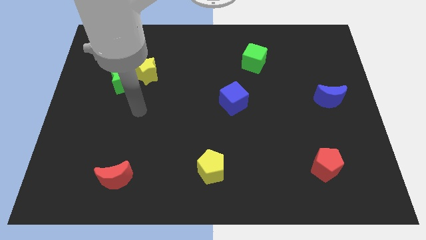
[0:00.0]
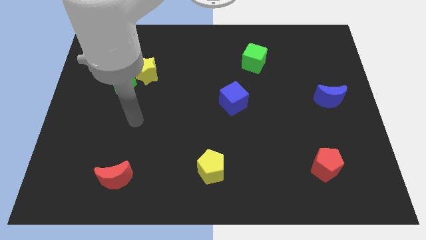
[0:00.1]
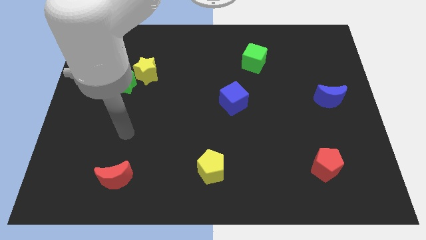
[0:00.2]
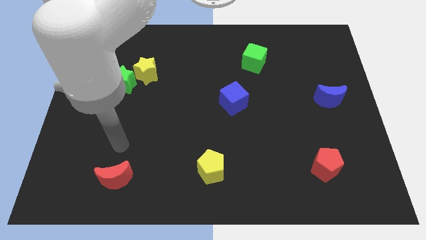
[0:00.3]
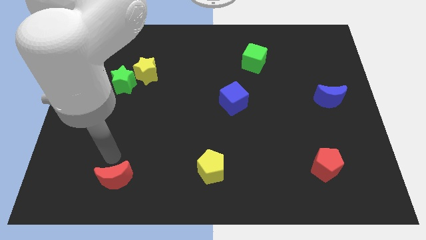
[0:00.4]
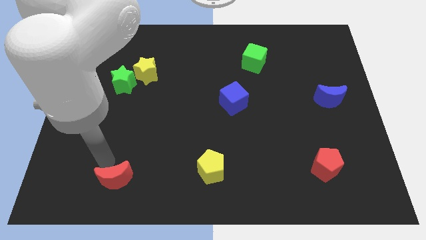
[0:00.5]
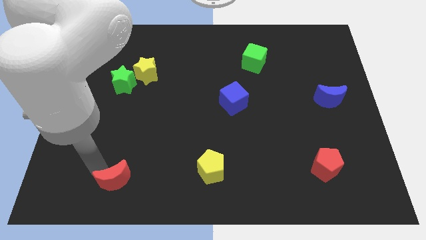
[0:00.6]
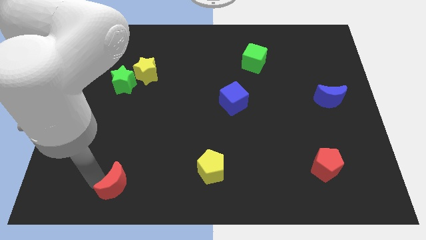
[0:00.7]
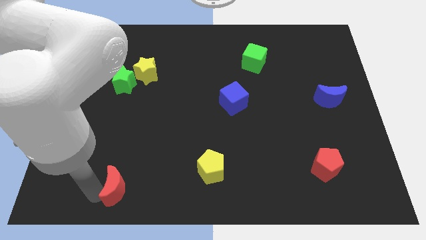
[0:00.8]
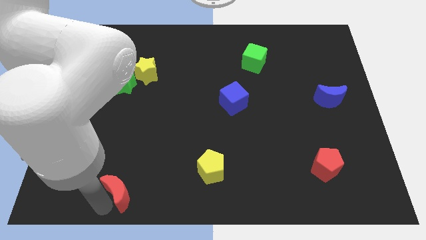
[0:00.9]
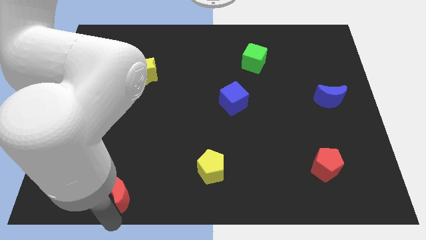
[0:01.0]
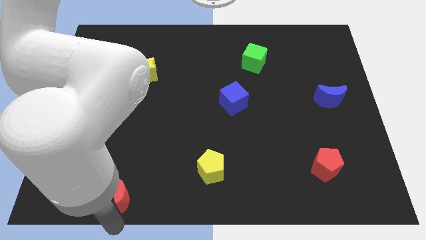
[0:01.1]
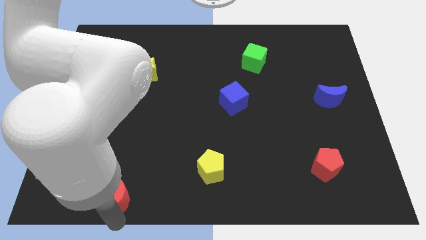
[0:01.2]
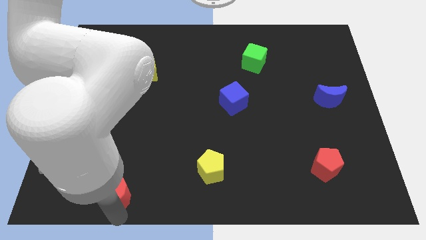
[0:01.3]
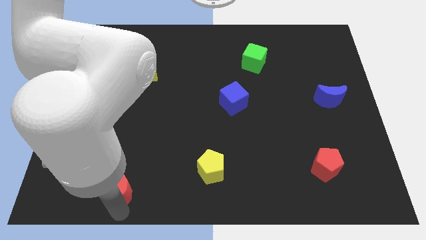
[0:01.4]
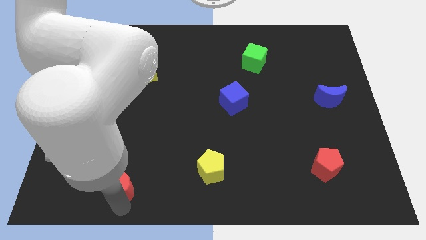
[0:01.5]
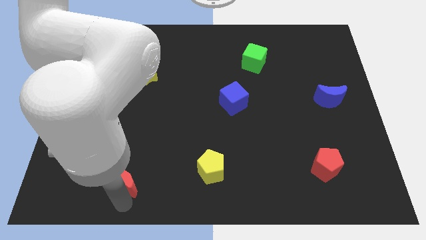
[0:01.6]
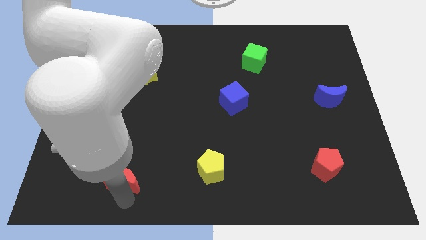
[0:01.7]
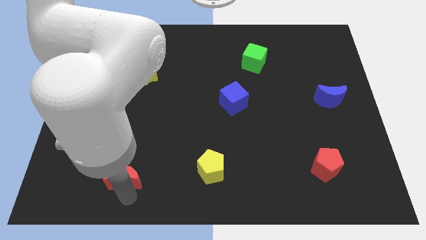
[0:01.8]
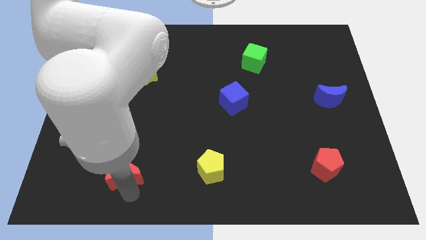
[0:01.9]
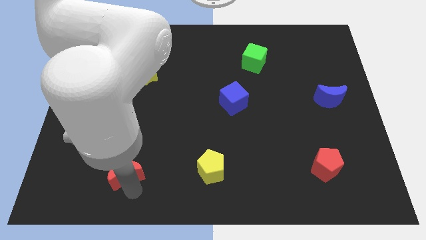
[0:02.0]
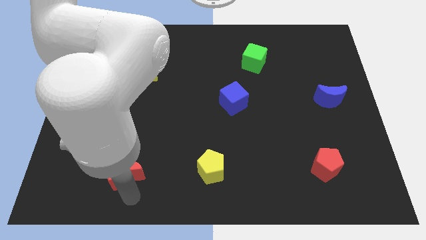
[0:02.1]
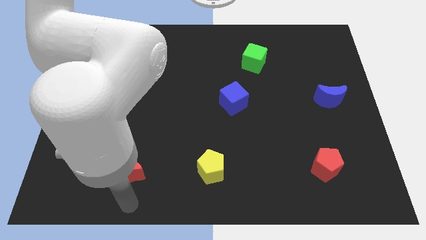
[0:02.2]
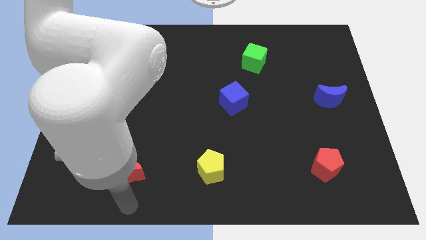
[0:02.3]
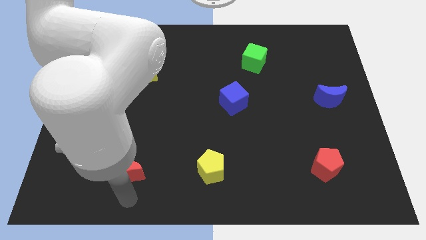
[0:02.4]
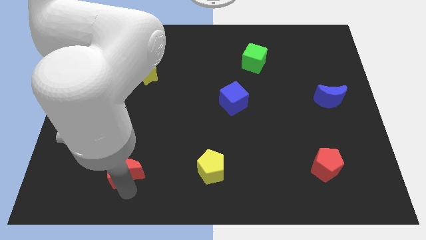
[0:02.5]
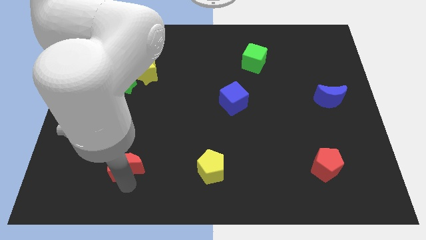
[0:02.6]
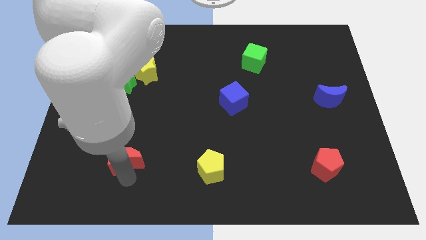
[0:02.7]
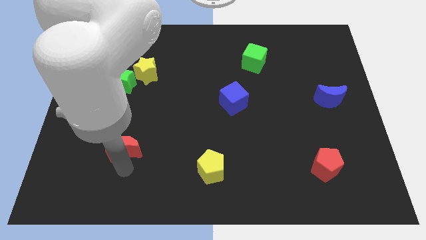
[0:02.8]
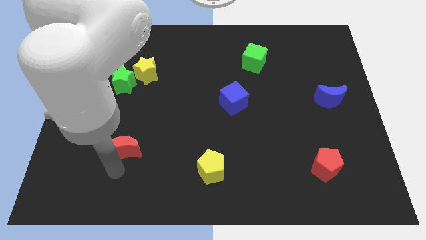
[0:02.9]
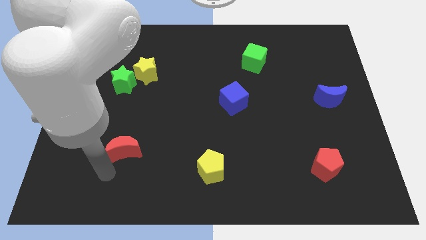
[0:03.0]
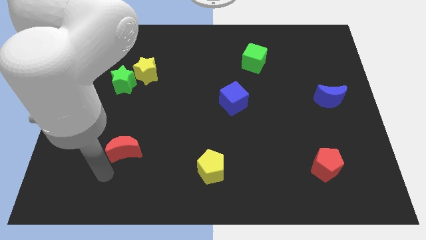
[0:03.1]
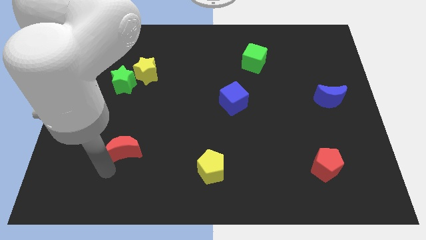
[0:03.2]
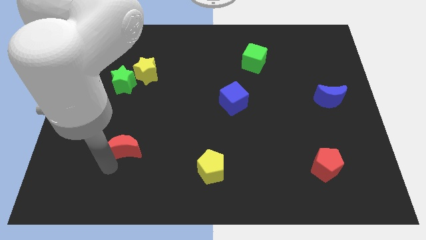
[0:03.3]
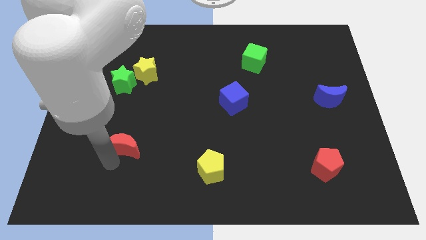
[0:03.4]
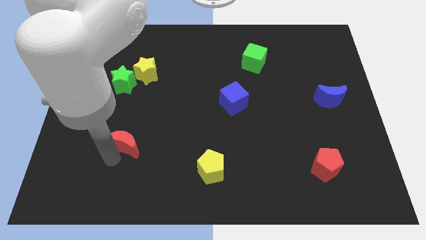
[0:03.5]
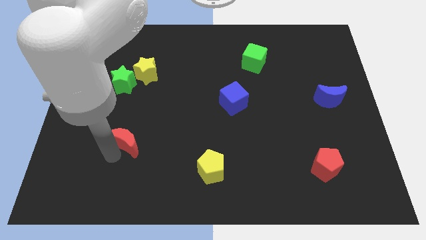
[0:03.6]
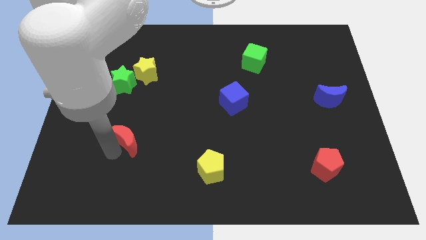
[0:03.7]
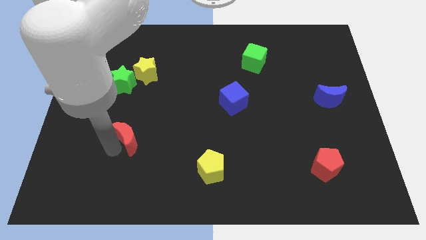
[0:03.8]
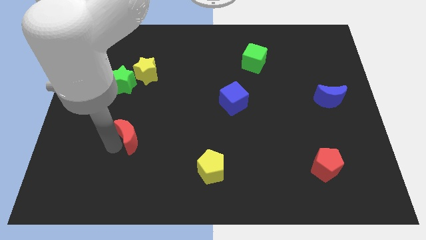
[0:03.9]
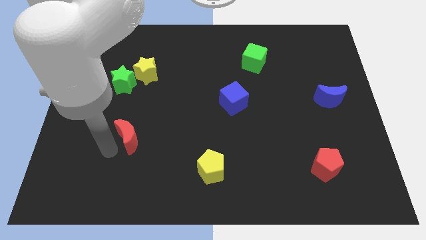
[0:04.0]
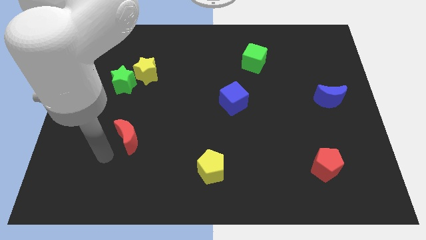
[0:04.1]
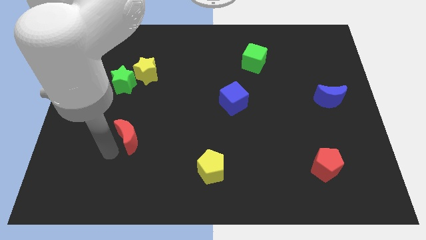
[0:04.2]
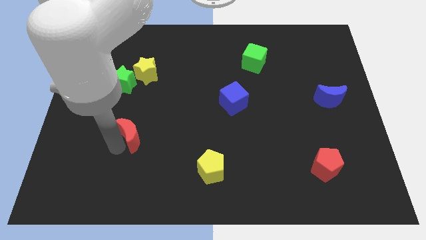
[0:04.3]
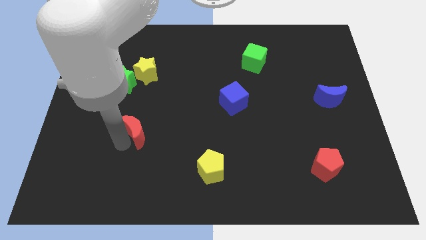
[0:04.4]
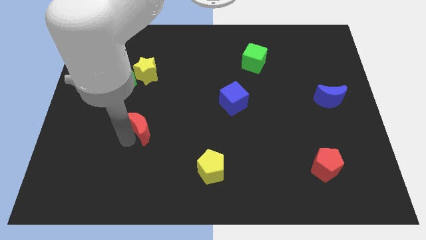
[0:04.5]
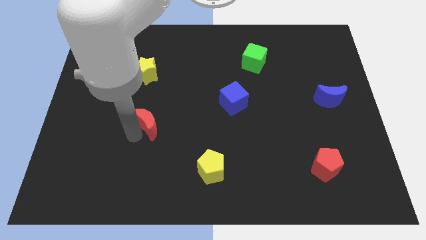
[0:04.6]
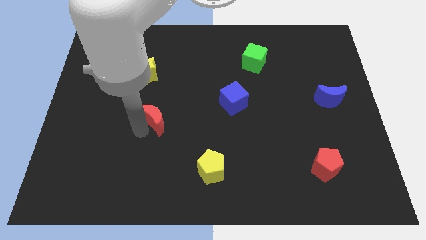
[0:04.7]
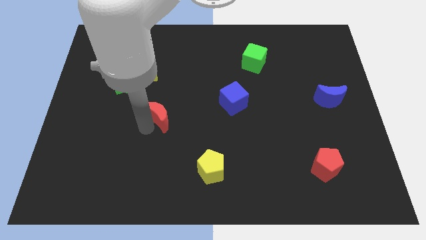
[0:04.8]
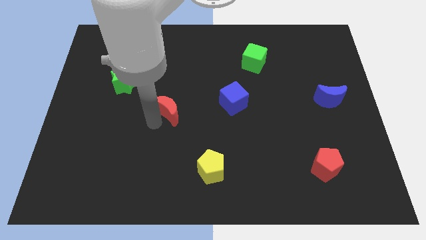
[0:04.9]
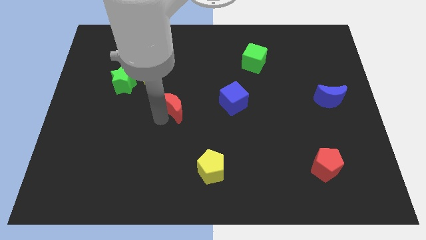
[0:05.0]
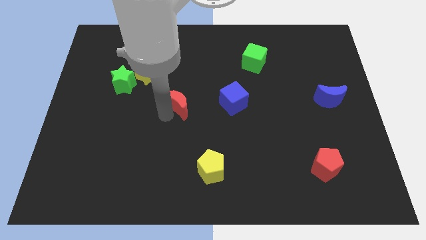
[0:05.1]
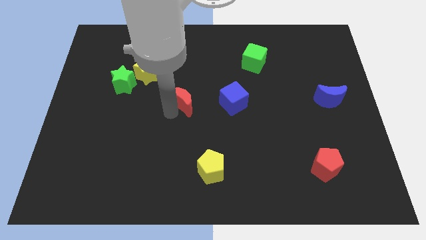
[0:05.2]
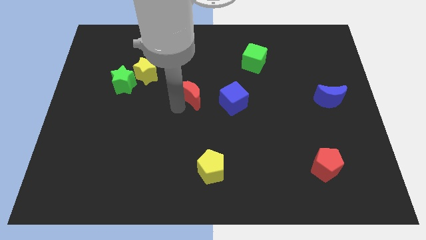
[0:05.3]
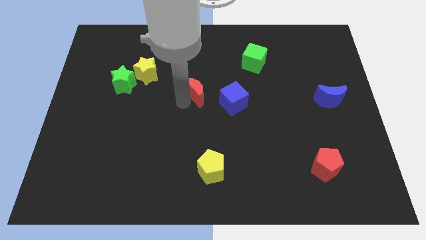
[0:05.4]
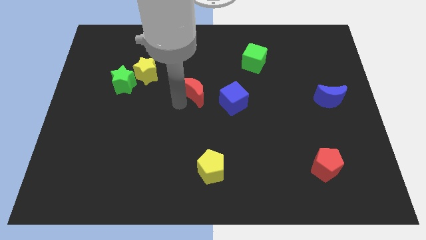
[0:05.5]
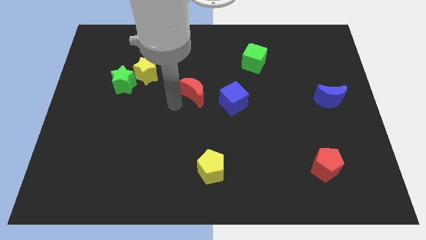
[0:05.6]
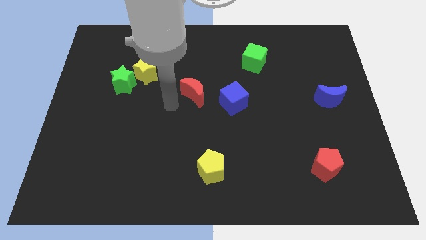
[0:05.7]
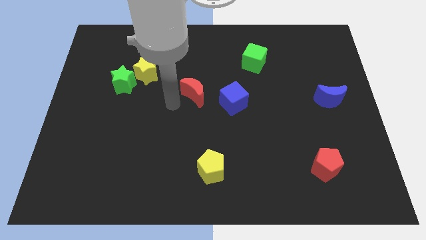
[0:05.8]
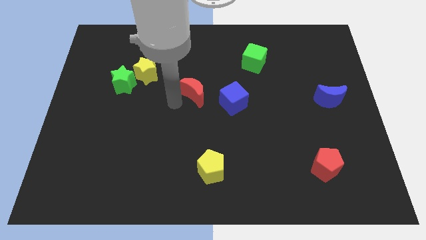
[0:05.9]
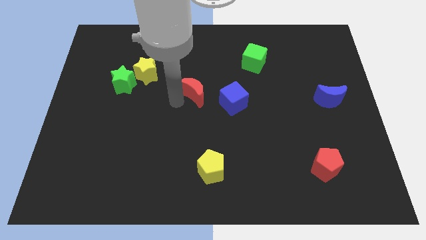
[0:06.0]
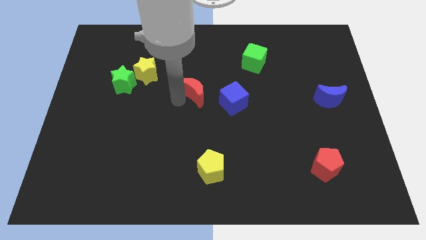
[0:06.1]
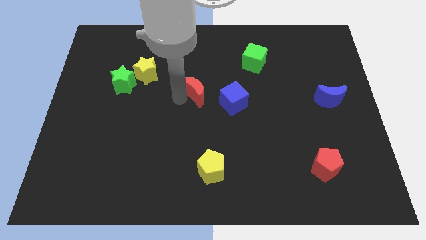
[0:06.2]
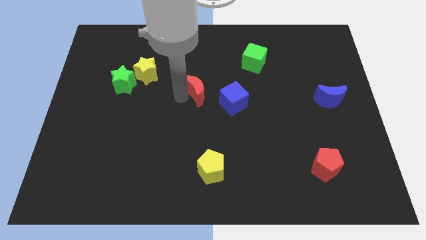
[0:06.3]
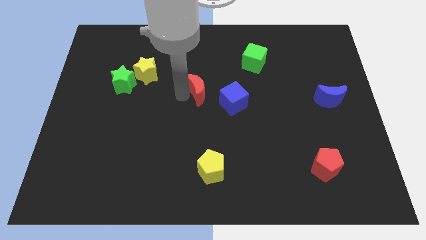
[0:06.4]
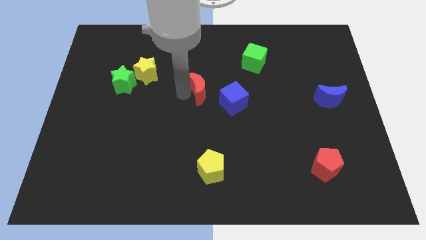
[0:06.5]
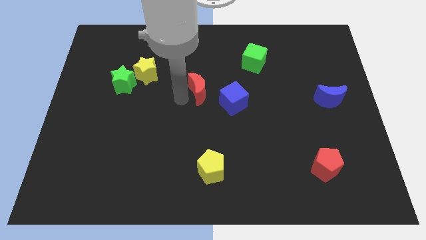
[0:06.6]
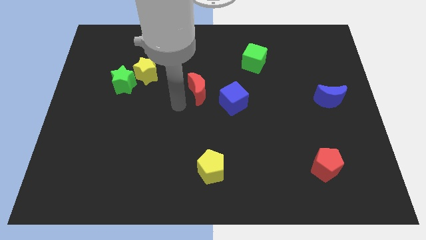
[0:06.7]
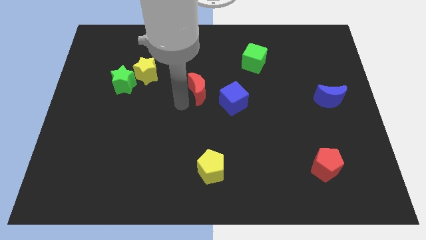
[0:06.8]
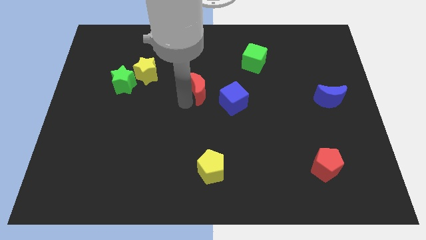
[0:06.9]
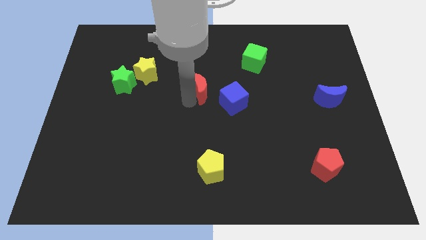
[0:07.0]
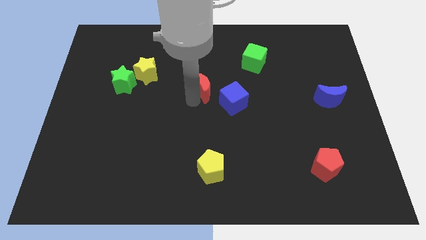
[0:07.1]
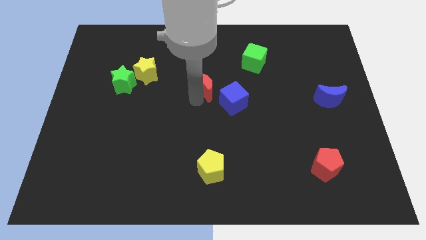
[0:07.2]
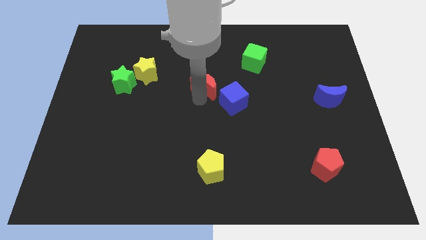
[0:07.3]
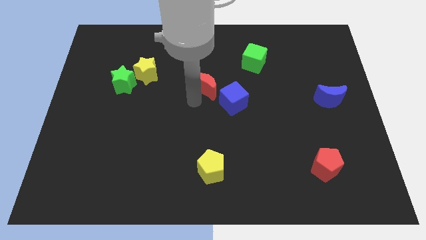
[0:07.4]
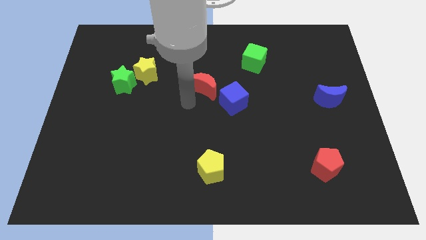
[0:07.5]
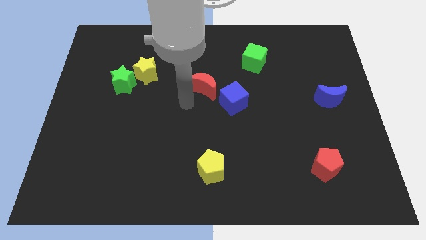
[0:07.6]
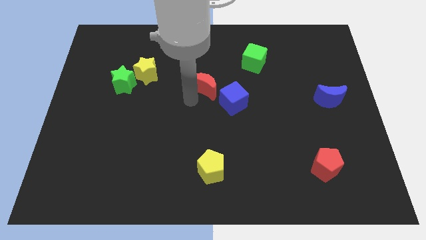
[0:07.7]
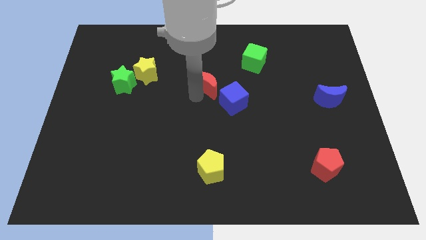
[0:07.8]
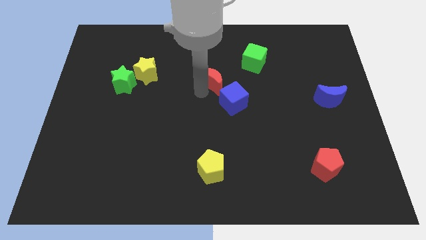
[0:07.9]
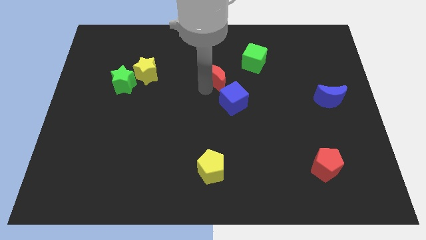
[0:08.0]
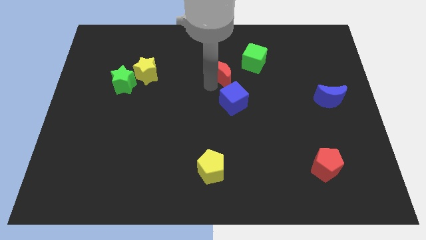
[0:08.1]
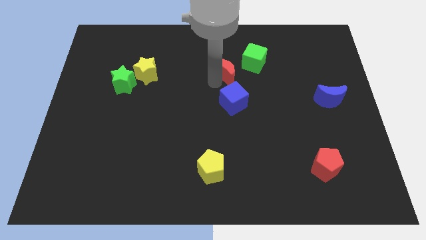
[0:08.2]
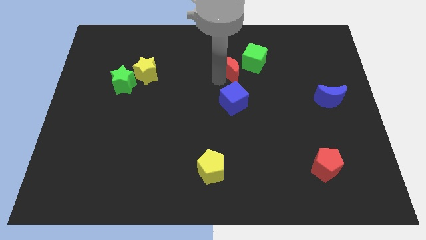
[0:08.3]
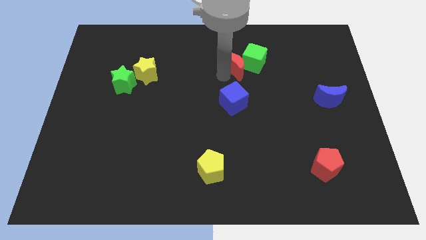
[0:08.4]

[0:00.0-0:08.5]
slide the red moon next to the green cube
